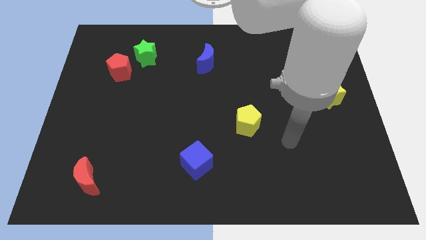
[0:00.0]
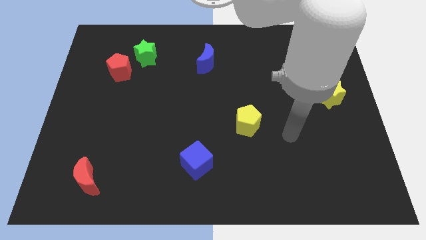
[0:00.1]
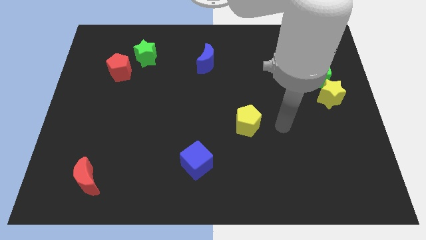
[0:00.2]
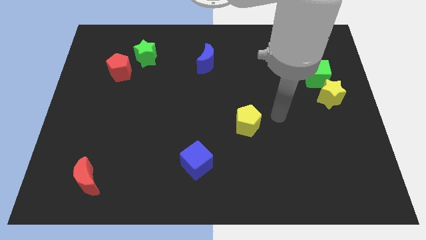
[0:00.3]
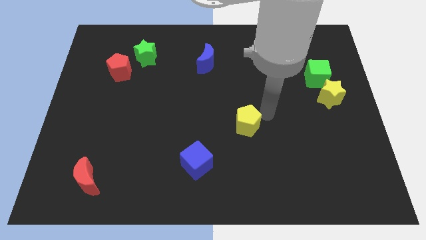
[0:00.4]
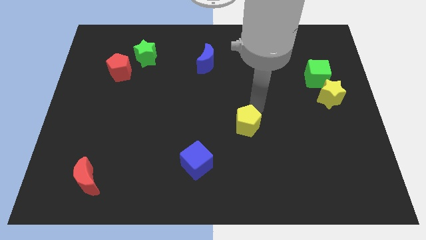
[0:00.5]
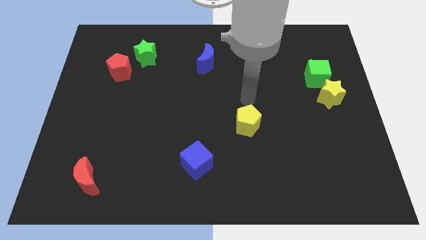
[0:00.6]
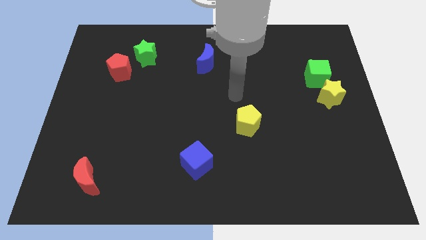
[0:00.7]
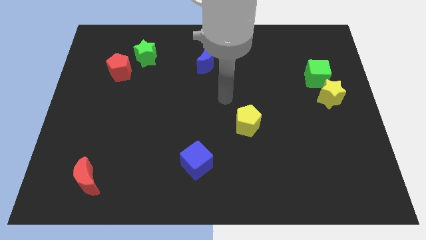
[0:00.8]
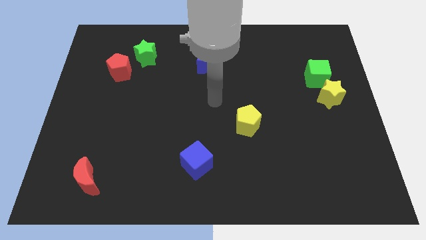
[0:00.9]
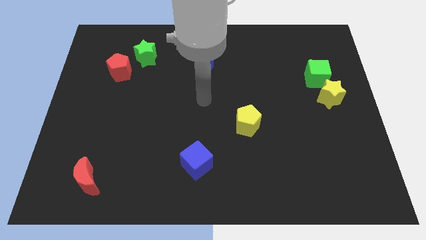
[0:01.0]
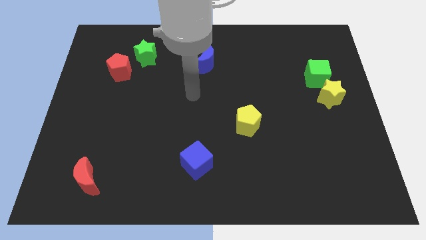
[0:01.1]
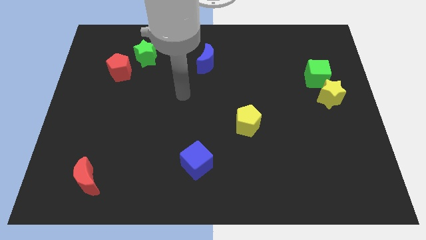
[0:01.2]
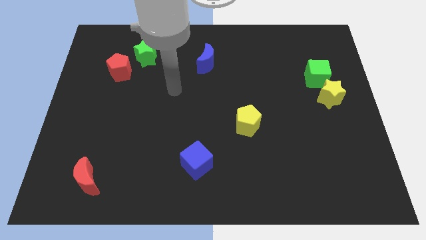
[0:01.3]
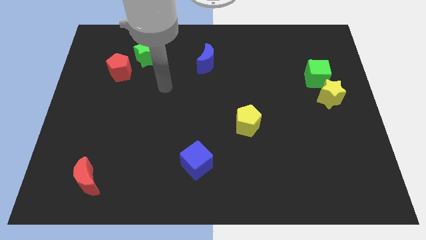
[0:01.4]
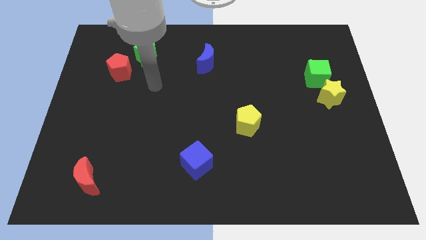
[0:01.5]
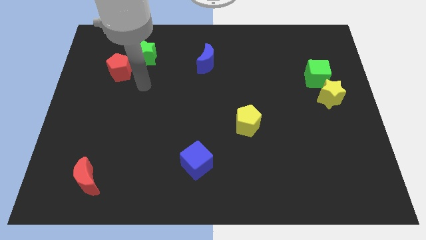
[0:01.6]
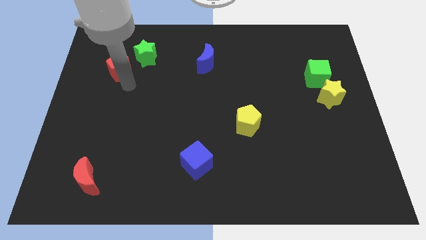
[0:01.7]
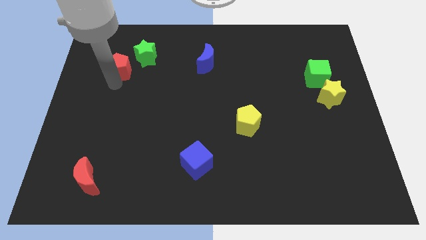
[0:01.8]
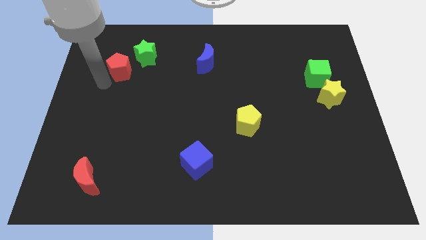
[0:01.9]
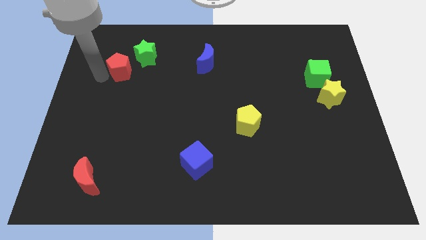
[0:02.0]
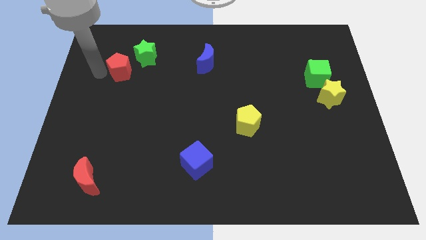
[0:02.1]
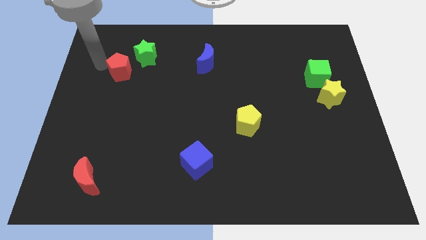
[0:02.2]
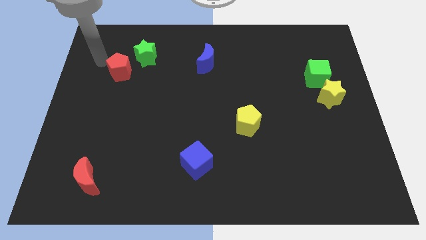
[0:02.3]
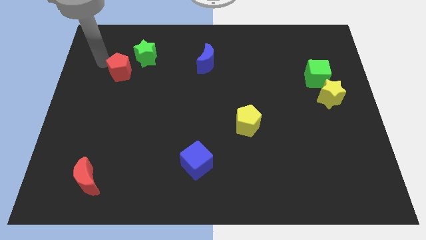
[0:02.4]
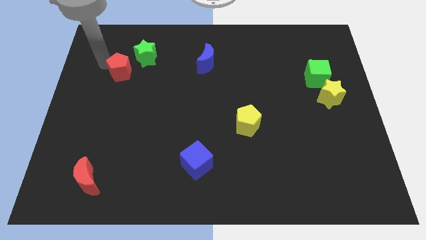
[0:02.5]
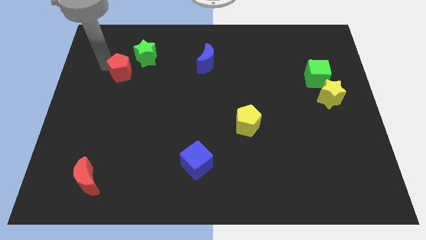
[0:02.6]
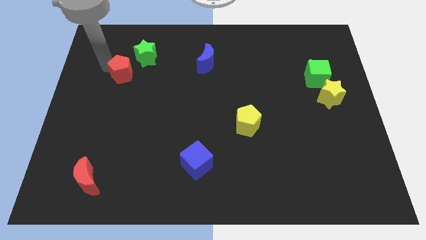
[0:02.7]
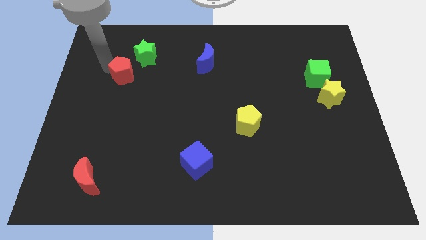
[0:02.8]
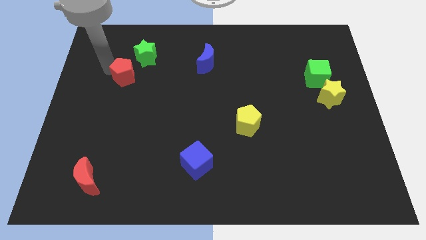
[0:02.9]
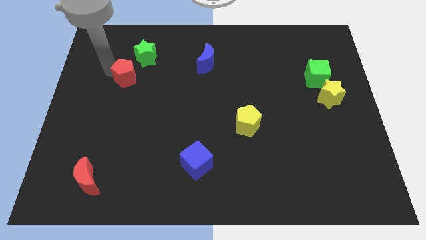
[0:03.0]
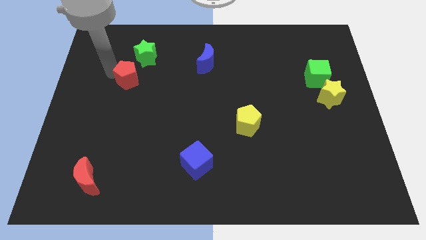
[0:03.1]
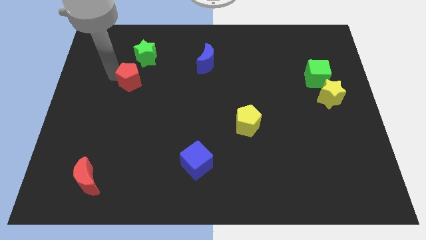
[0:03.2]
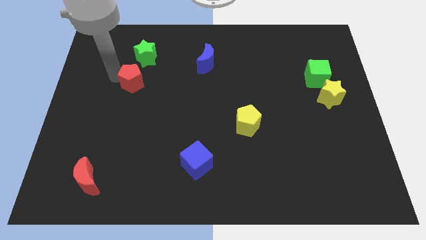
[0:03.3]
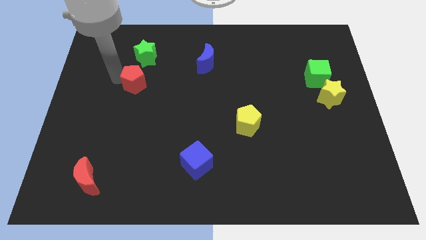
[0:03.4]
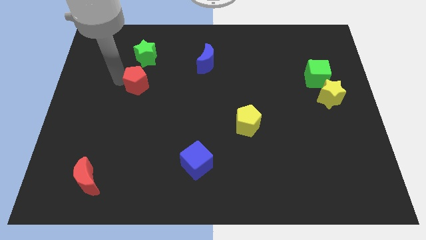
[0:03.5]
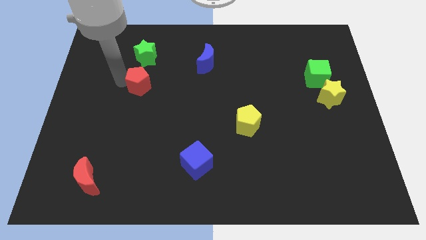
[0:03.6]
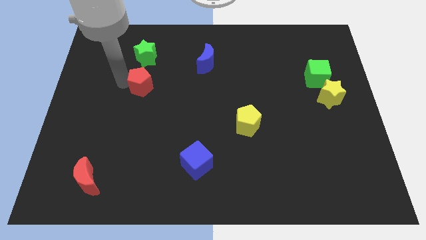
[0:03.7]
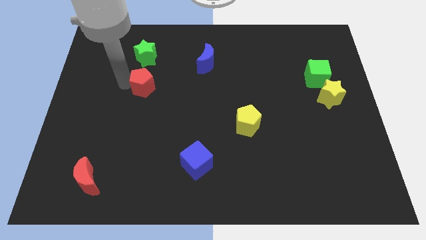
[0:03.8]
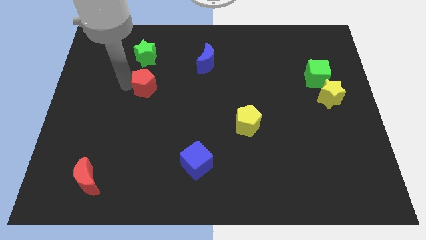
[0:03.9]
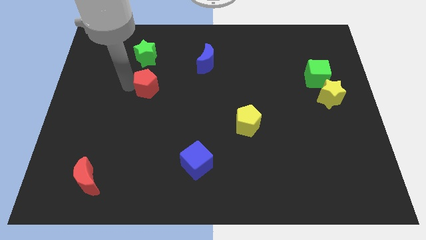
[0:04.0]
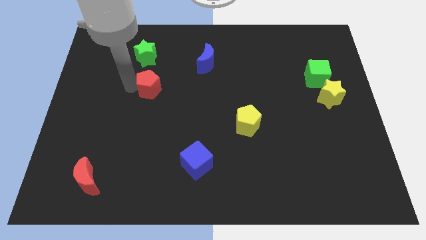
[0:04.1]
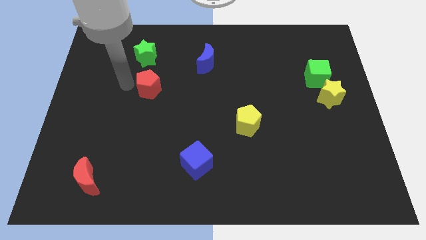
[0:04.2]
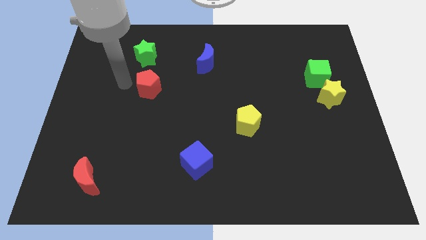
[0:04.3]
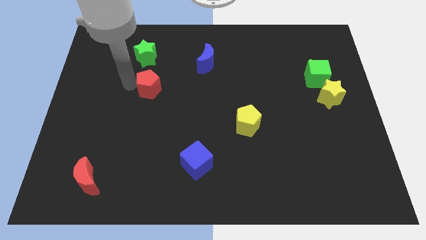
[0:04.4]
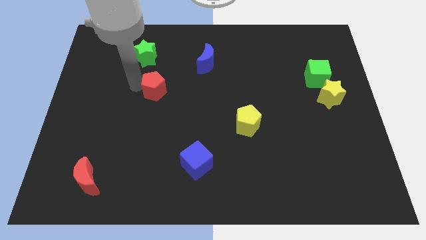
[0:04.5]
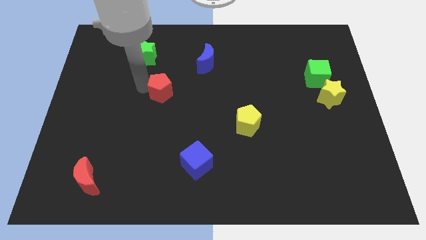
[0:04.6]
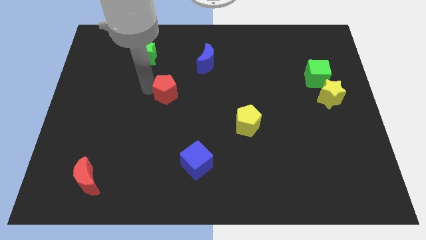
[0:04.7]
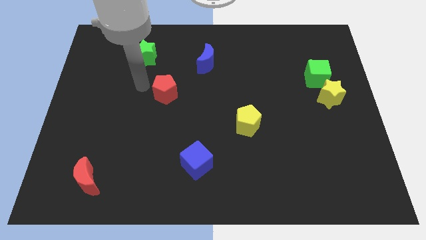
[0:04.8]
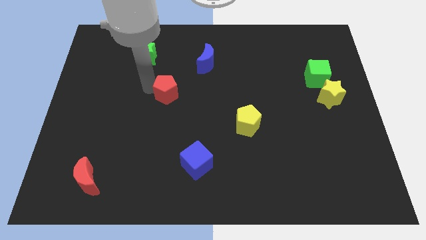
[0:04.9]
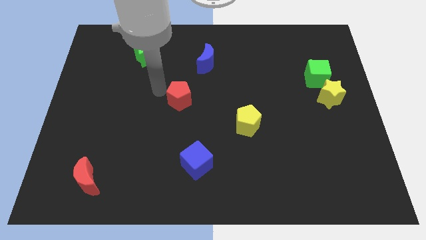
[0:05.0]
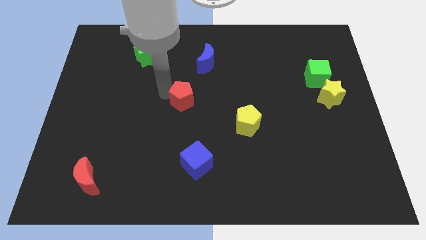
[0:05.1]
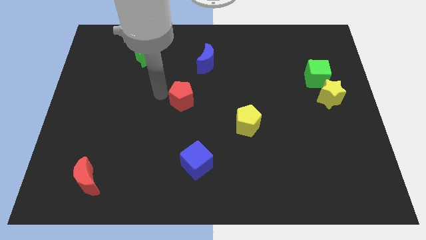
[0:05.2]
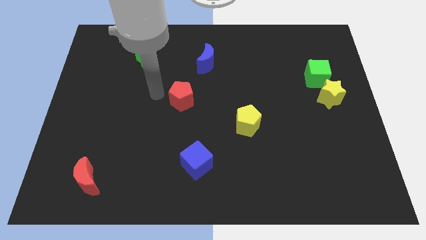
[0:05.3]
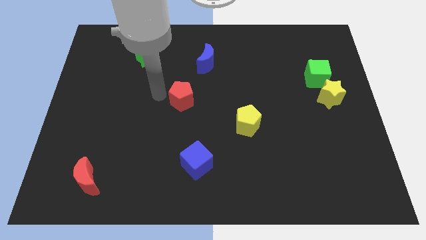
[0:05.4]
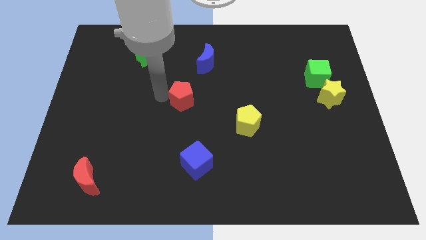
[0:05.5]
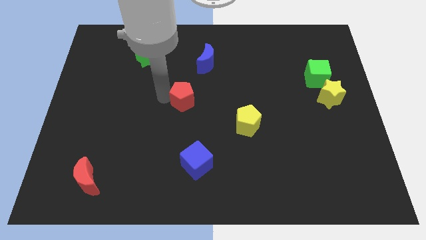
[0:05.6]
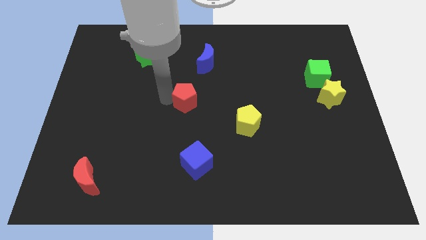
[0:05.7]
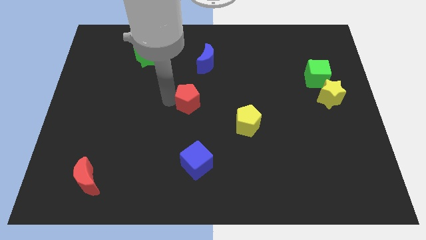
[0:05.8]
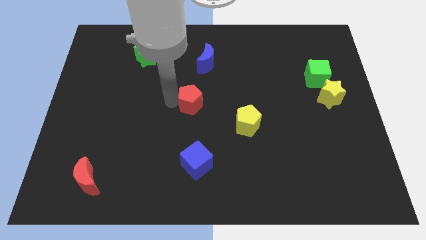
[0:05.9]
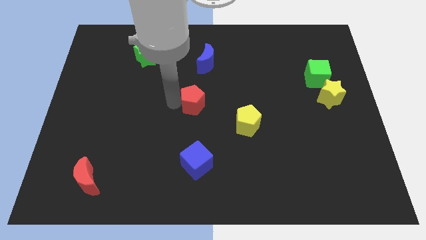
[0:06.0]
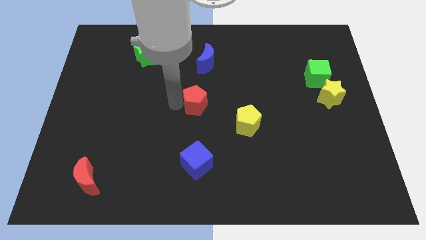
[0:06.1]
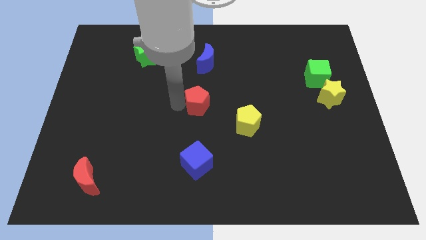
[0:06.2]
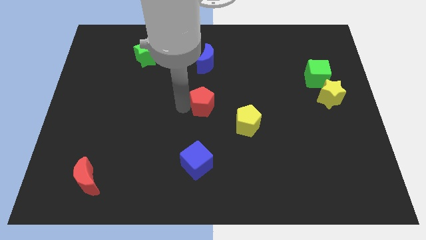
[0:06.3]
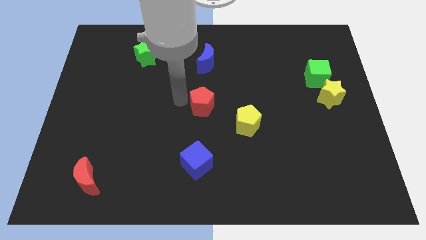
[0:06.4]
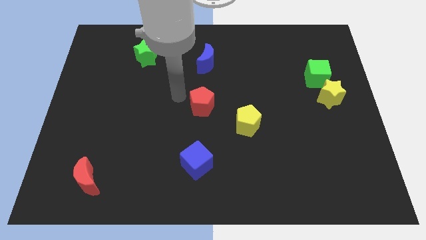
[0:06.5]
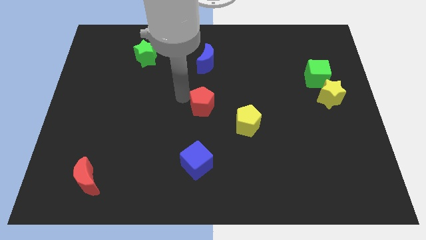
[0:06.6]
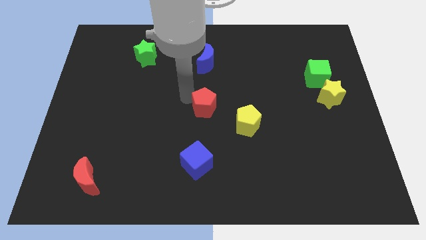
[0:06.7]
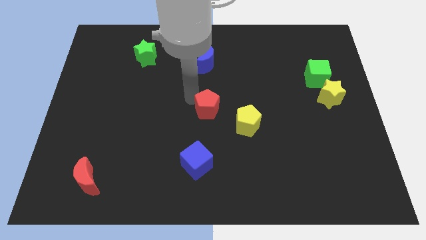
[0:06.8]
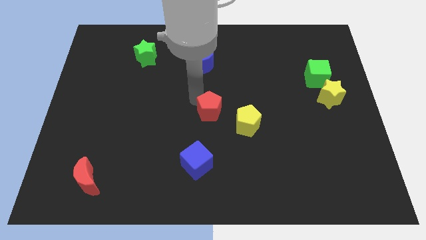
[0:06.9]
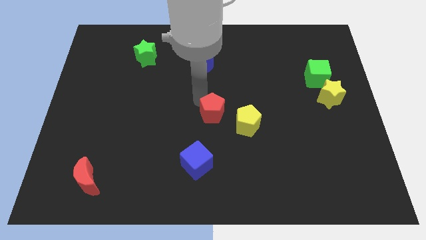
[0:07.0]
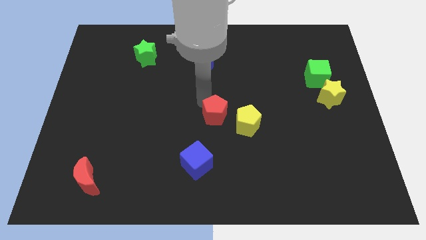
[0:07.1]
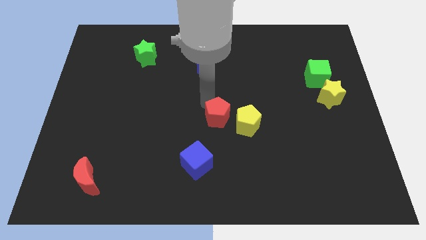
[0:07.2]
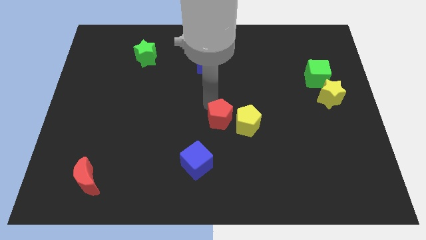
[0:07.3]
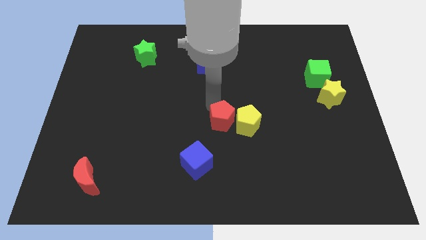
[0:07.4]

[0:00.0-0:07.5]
push the red pentagon to the yellow pentagon
